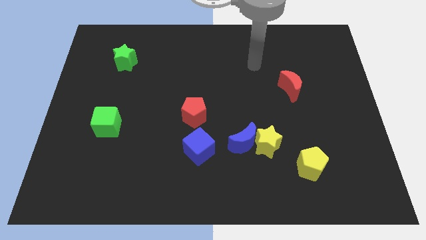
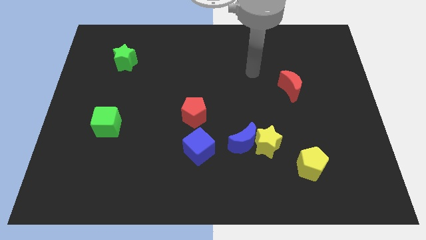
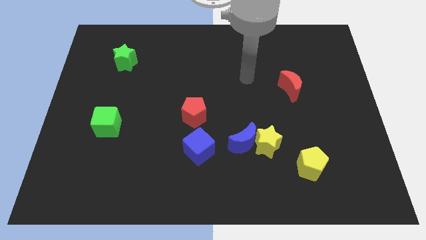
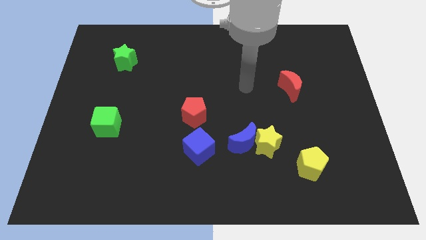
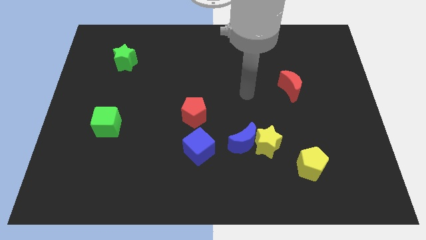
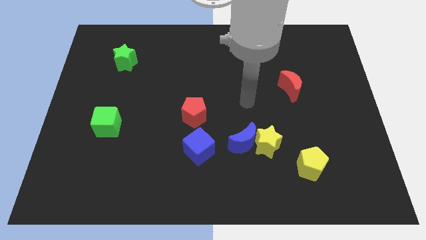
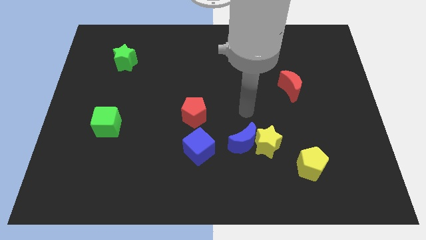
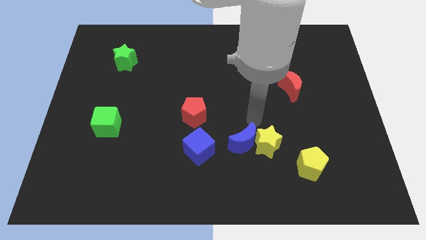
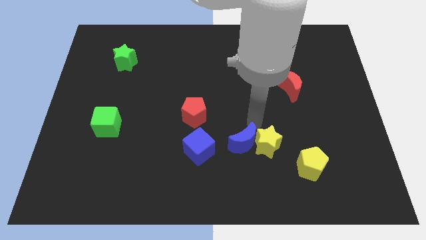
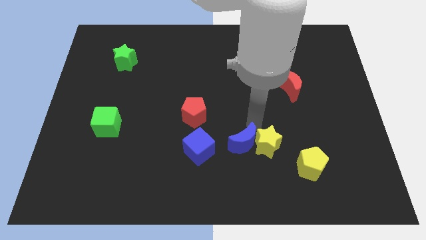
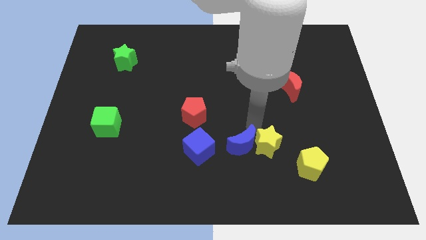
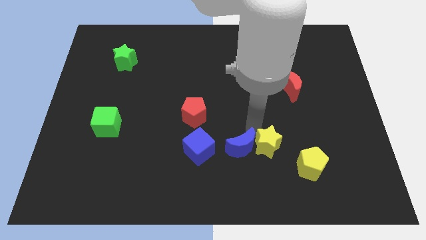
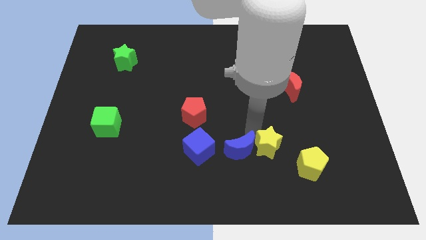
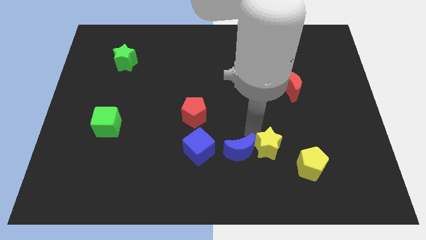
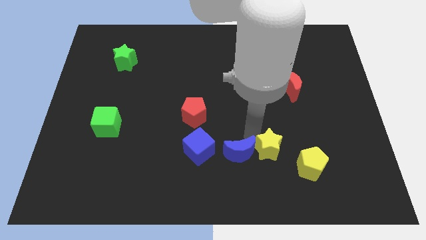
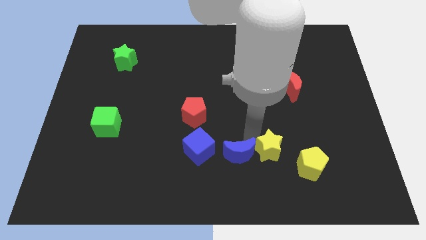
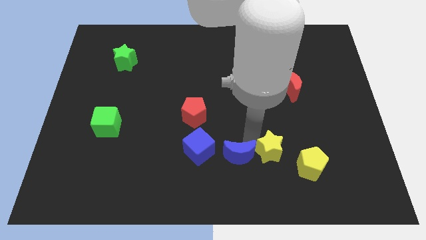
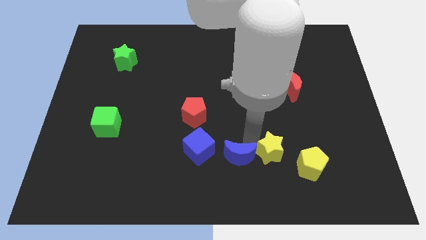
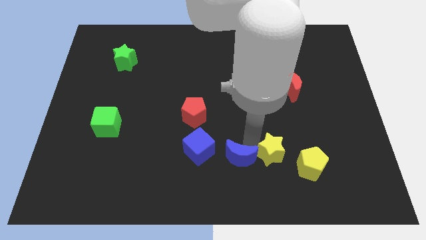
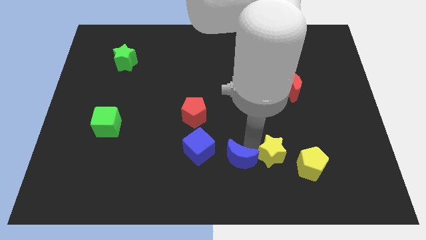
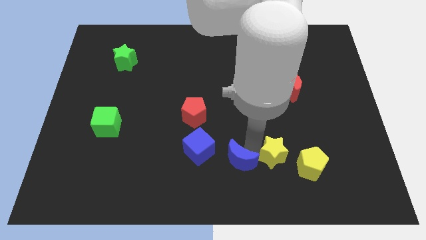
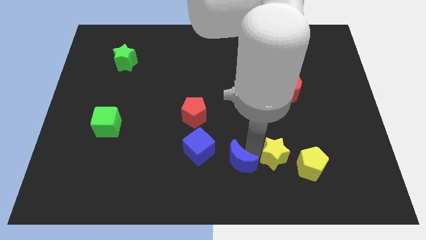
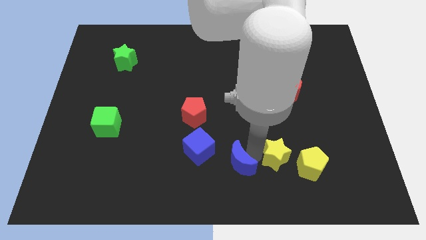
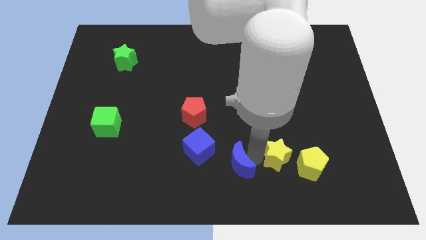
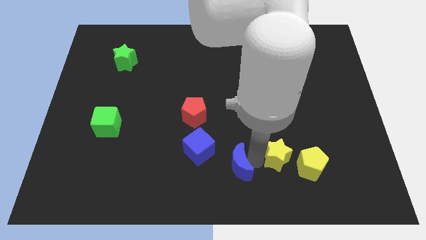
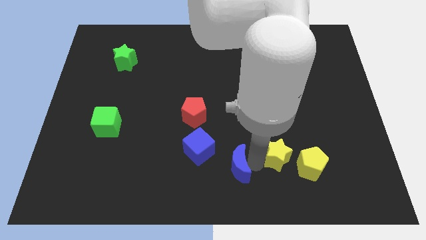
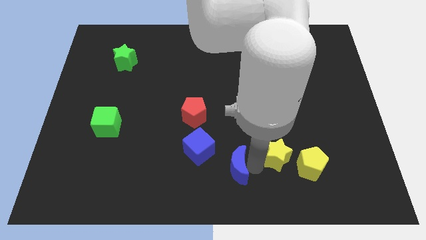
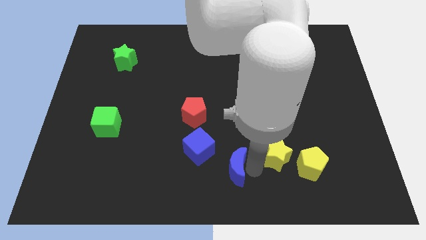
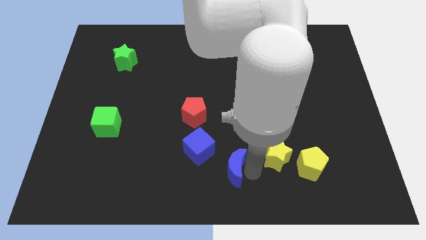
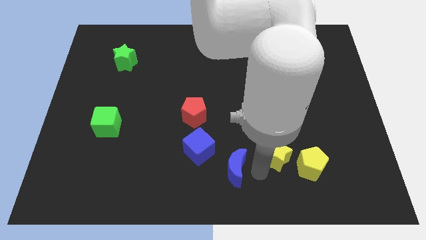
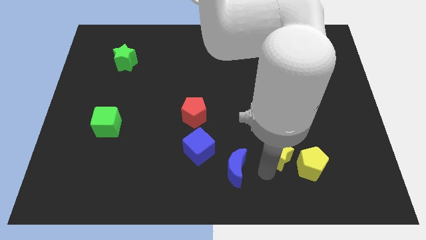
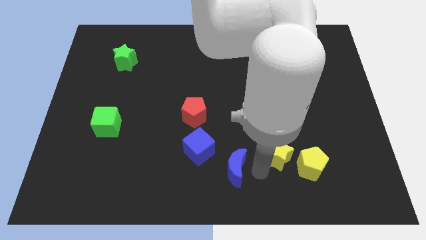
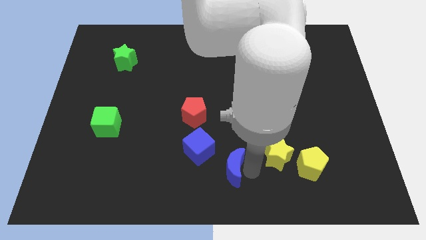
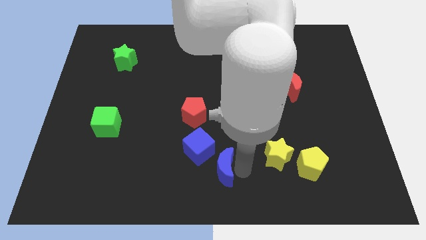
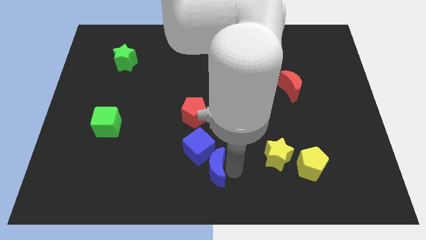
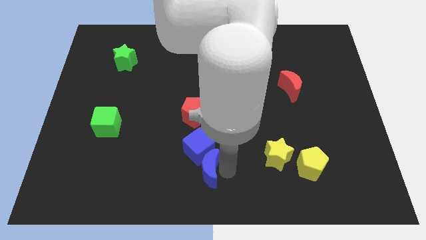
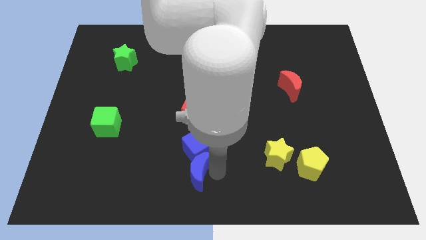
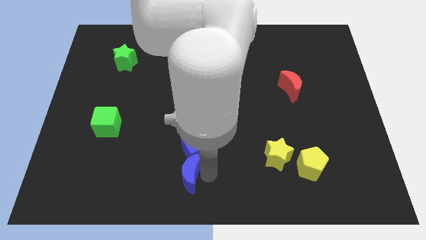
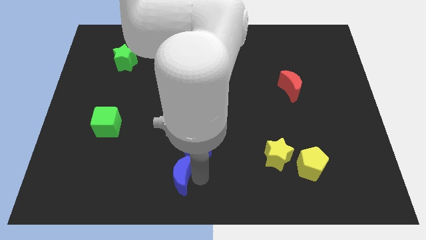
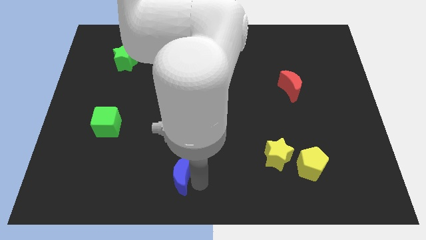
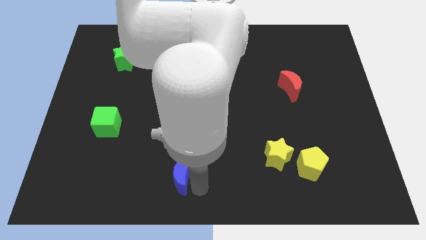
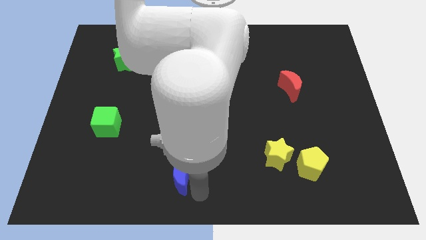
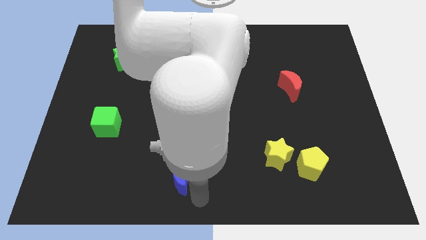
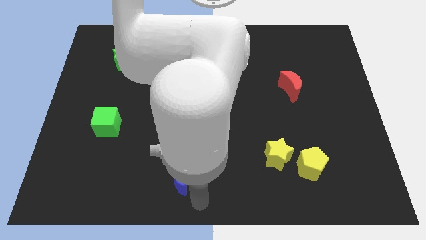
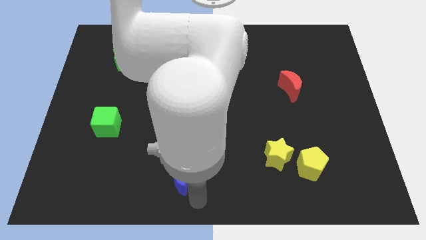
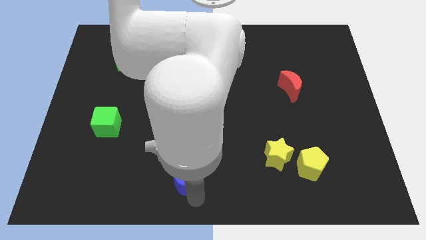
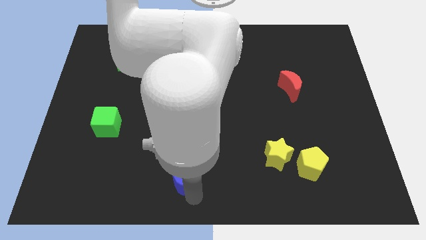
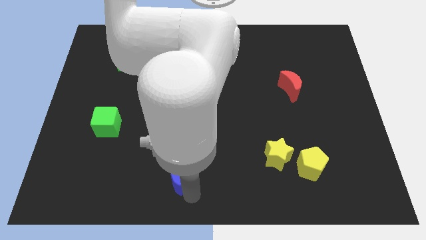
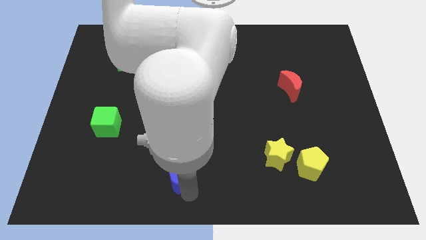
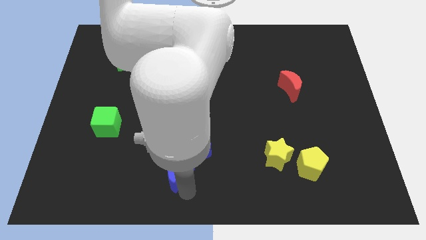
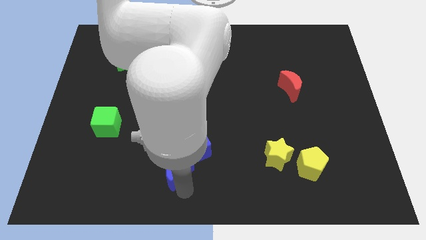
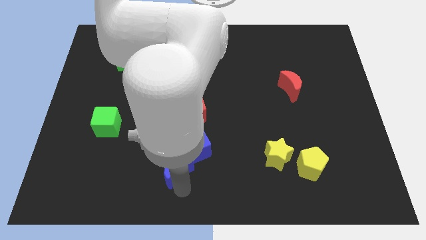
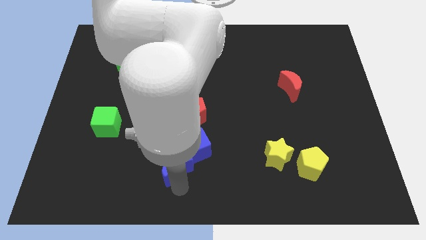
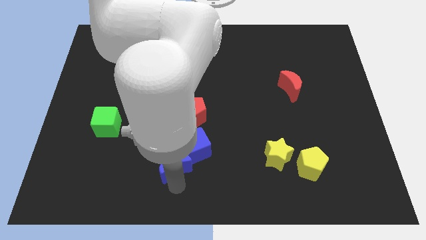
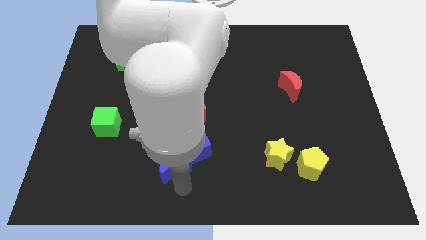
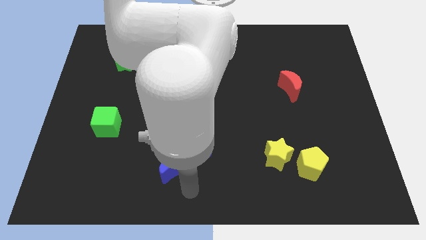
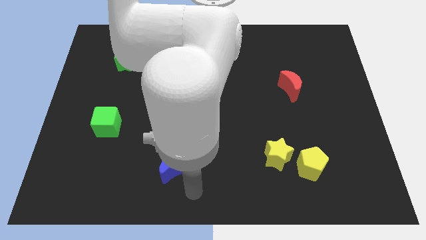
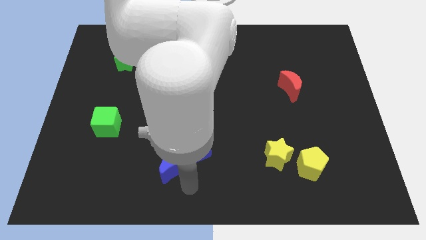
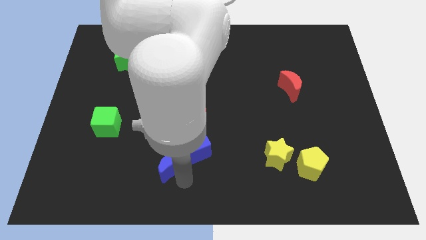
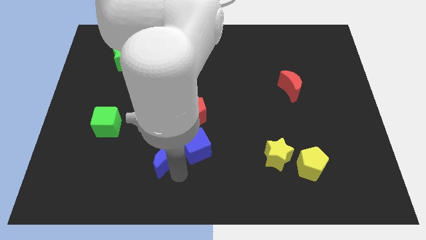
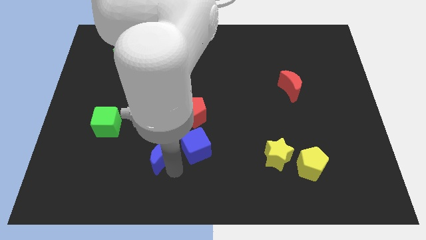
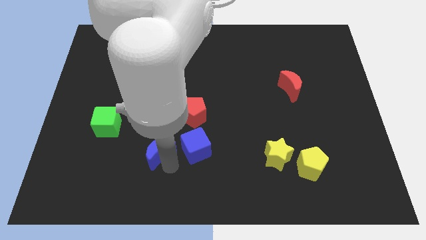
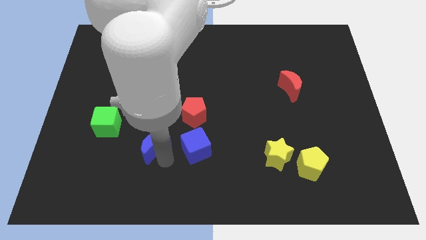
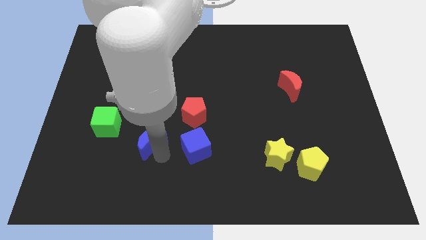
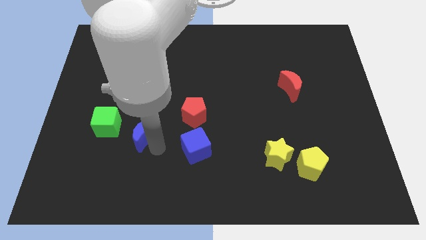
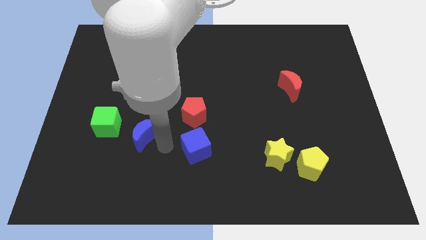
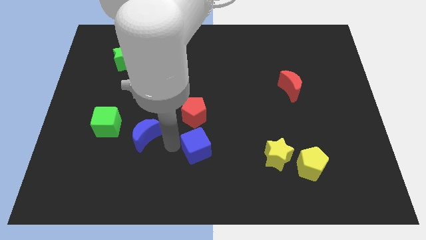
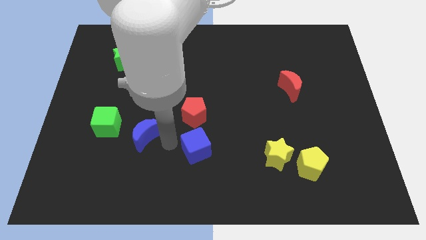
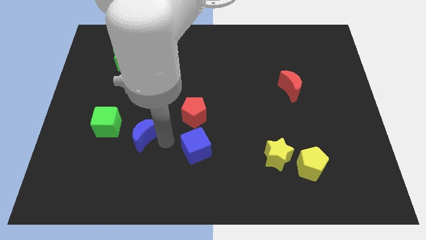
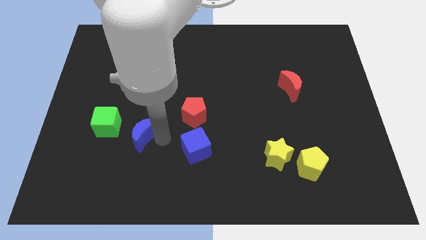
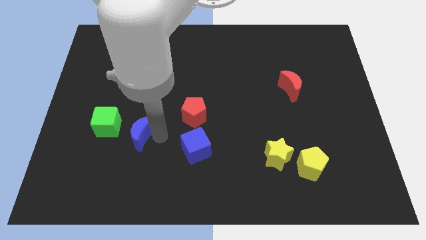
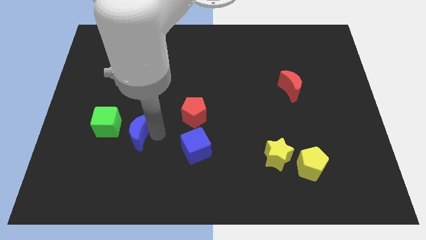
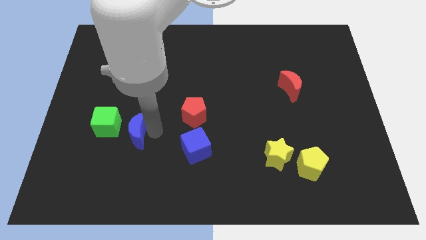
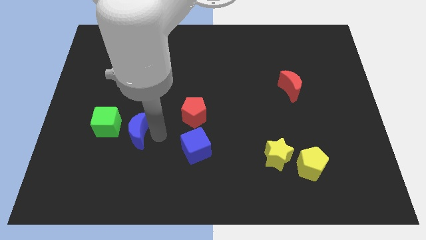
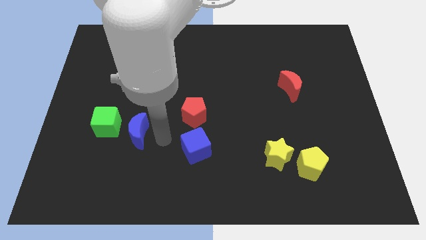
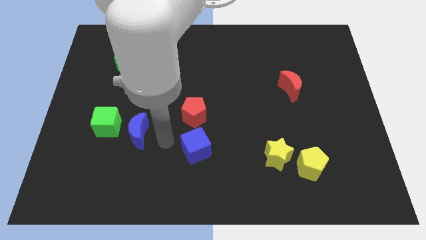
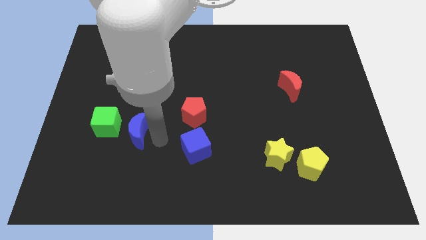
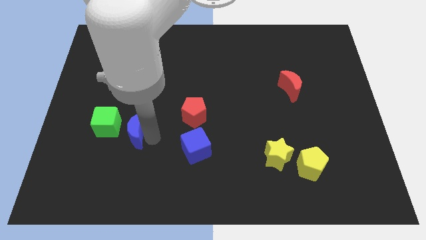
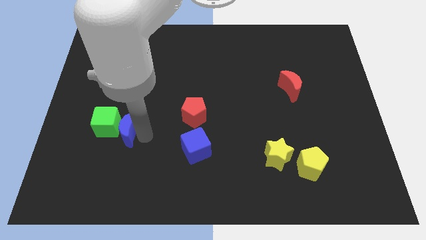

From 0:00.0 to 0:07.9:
move the blue moon close to the green cube
